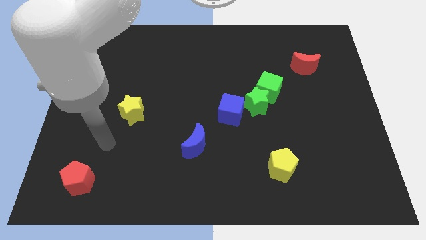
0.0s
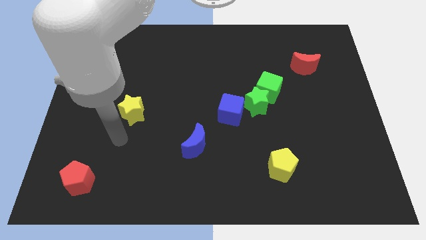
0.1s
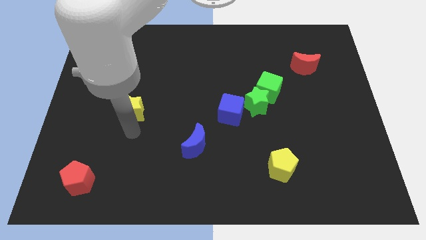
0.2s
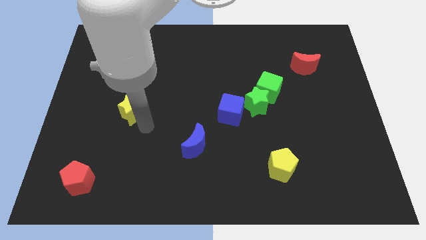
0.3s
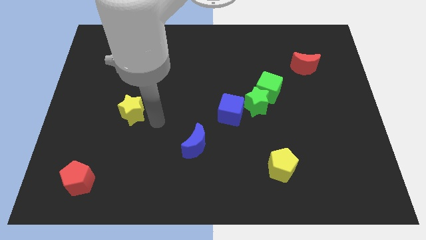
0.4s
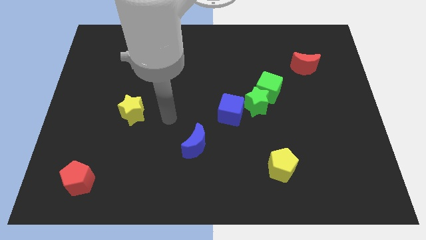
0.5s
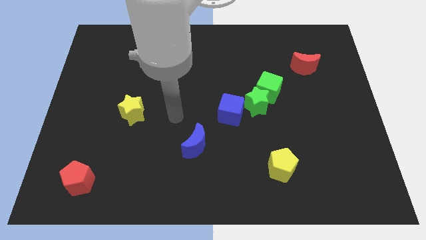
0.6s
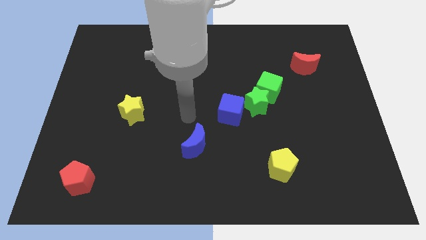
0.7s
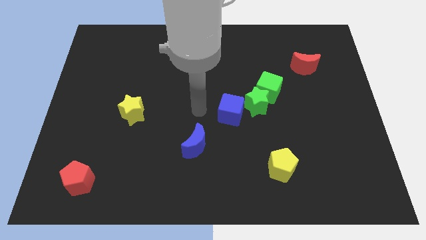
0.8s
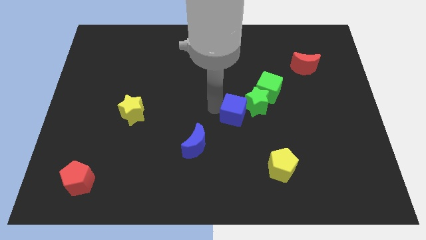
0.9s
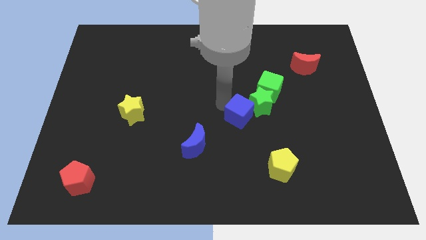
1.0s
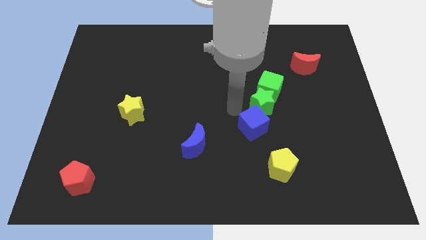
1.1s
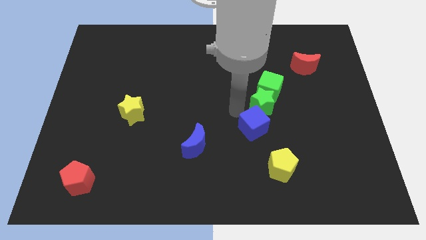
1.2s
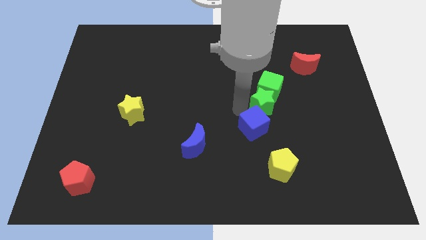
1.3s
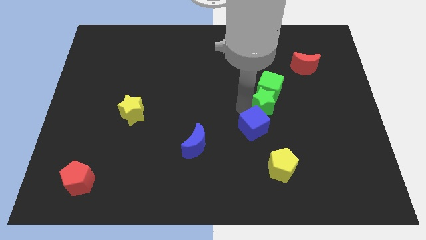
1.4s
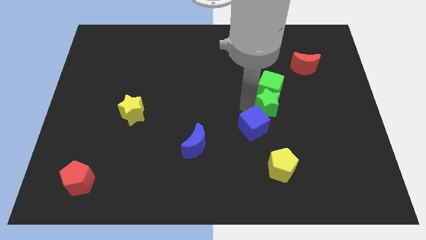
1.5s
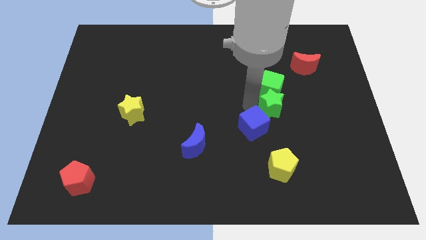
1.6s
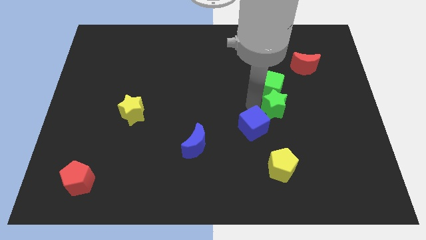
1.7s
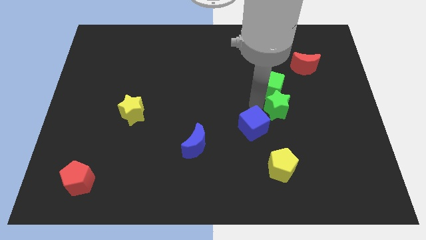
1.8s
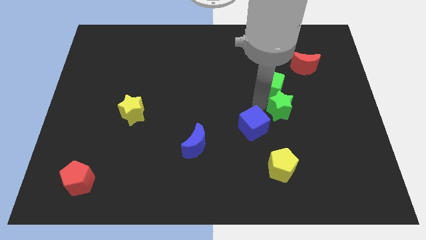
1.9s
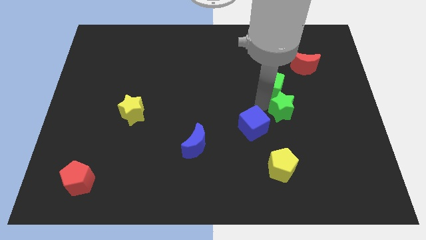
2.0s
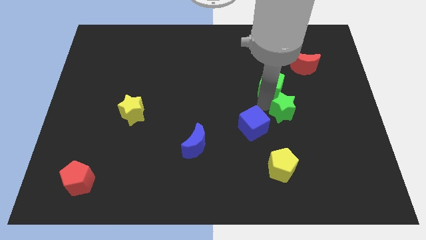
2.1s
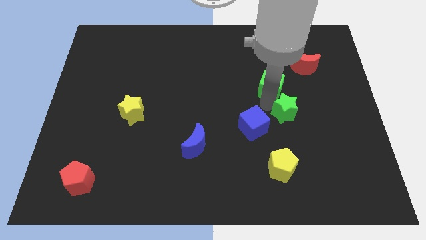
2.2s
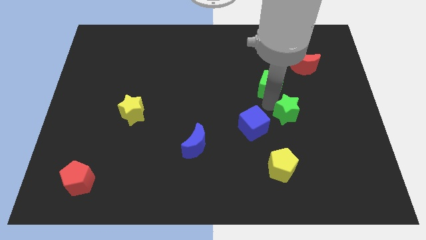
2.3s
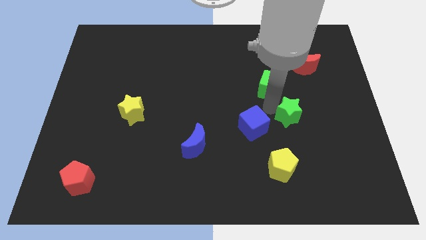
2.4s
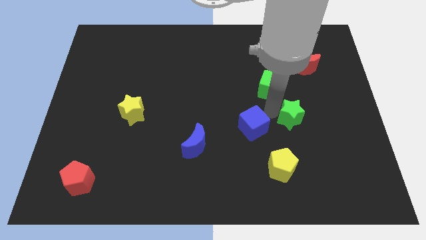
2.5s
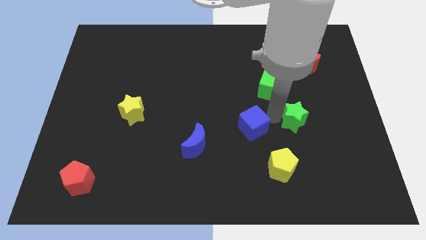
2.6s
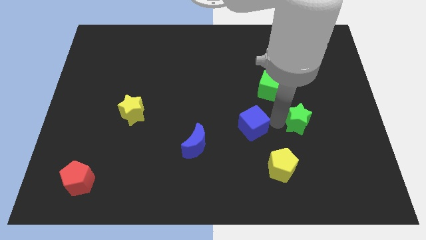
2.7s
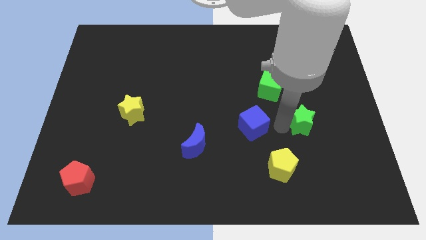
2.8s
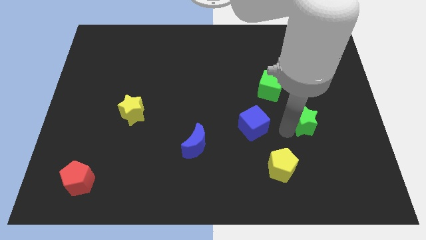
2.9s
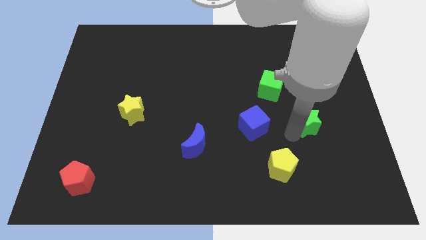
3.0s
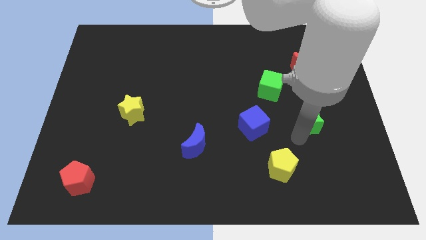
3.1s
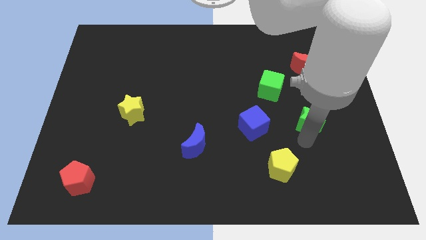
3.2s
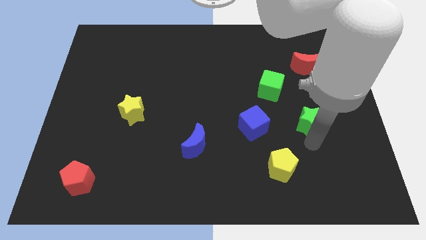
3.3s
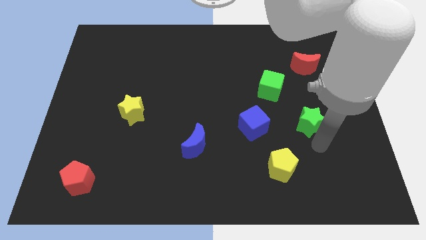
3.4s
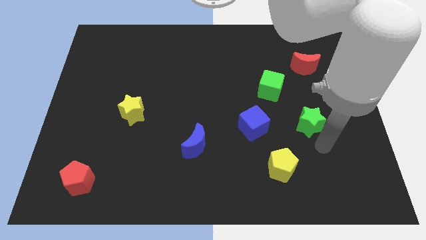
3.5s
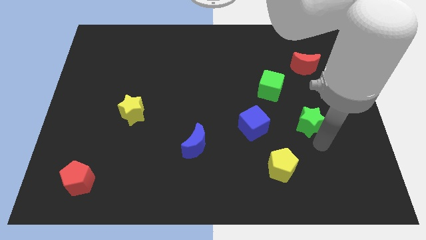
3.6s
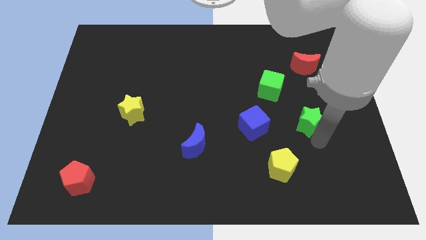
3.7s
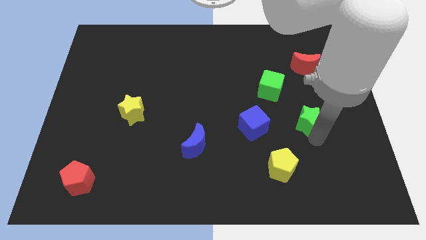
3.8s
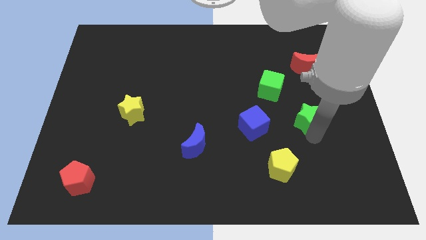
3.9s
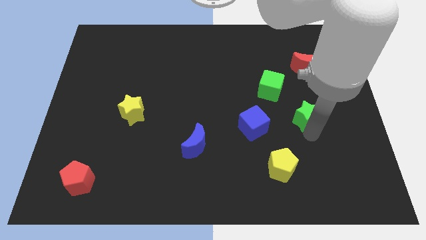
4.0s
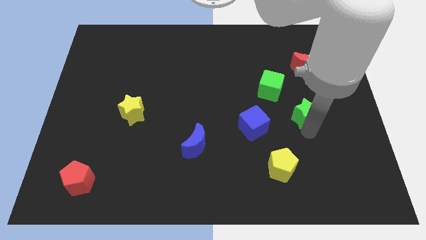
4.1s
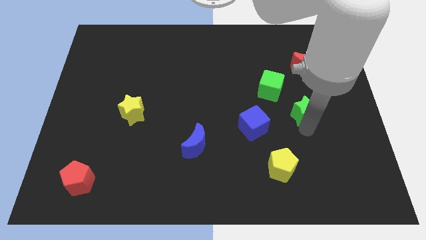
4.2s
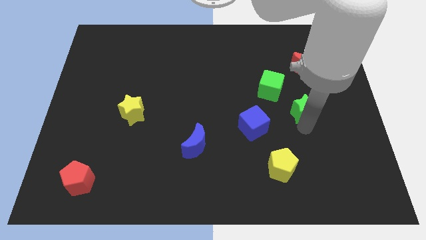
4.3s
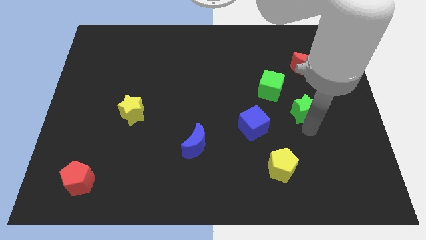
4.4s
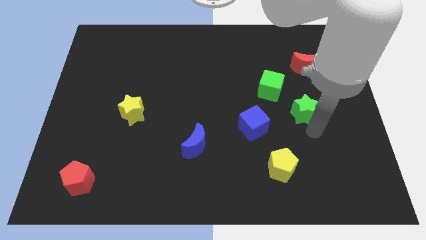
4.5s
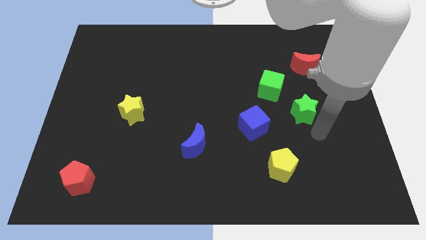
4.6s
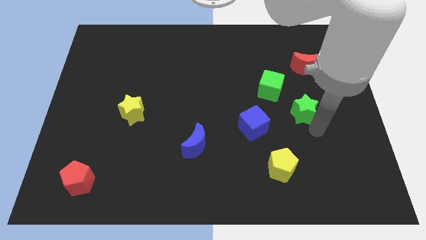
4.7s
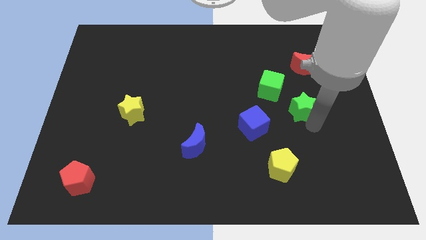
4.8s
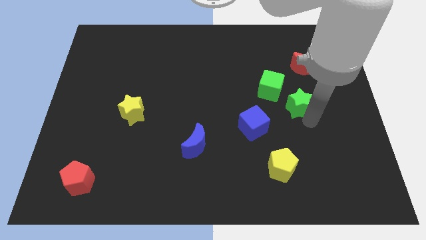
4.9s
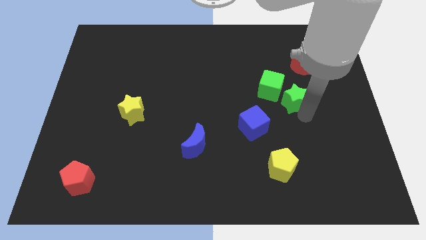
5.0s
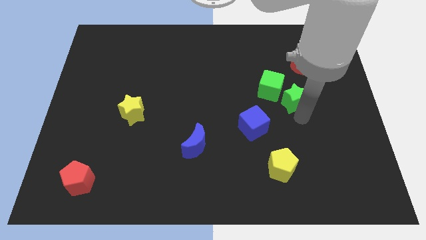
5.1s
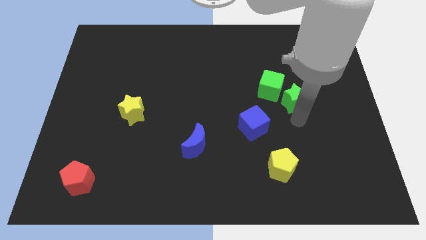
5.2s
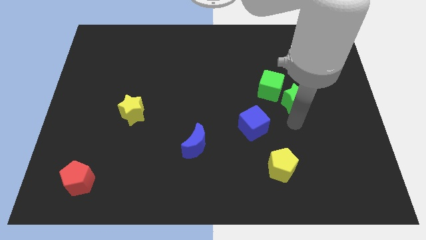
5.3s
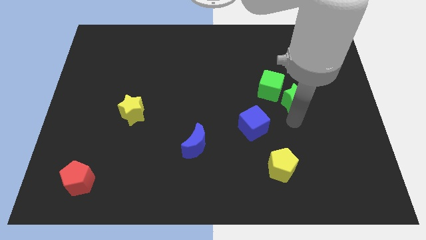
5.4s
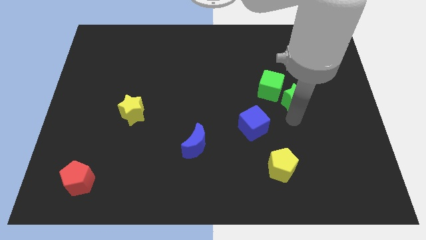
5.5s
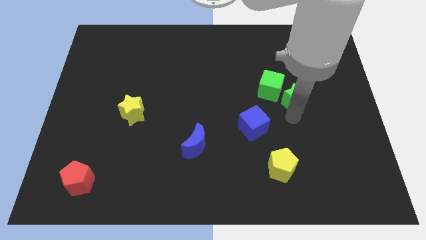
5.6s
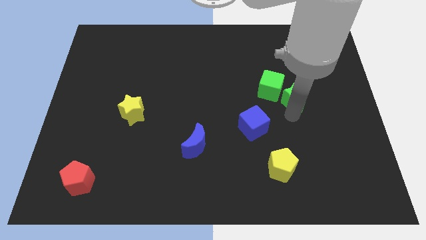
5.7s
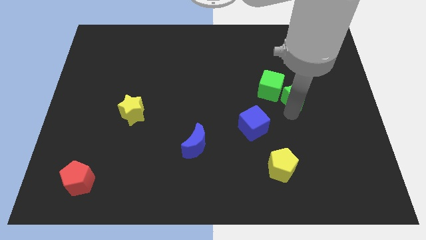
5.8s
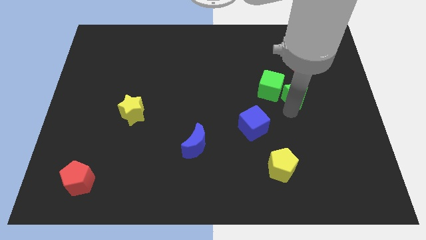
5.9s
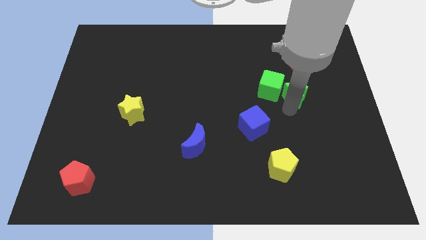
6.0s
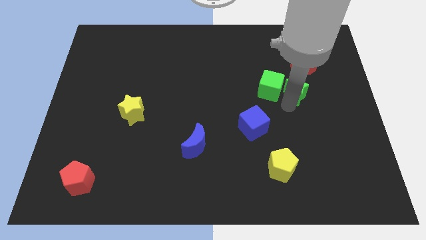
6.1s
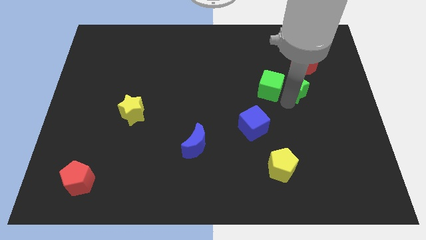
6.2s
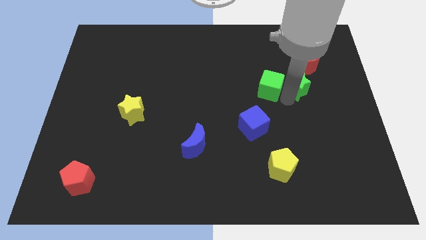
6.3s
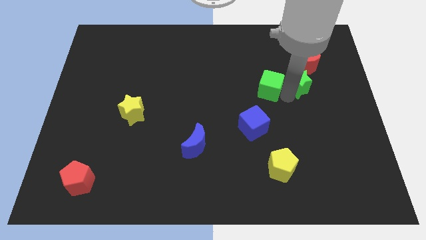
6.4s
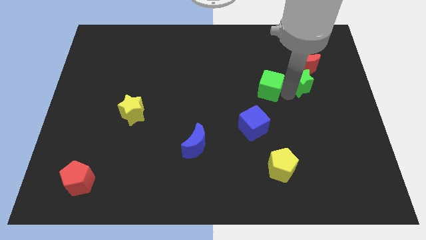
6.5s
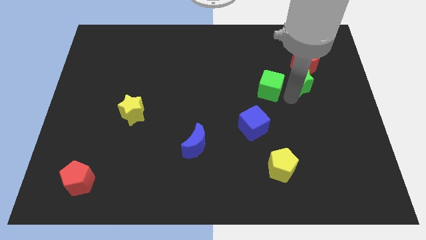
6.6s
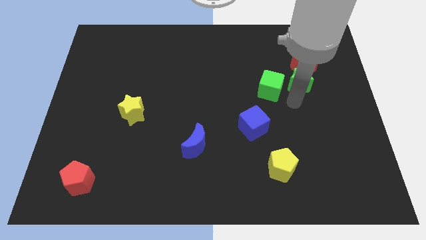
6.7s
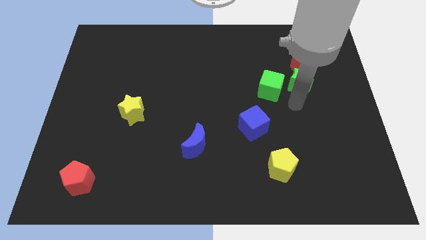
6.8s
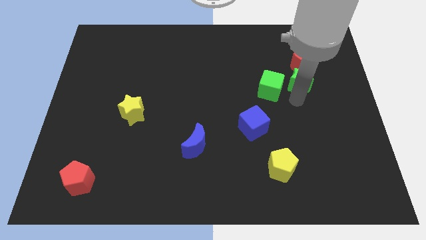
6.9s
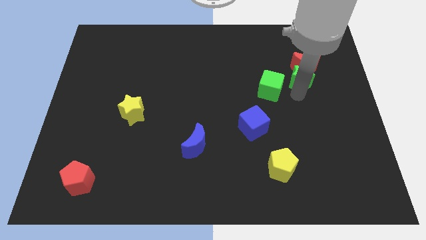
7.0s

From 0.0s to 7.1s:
slide the green star towards the red moon
